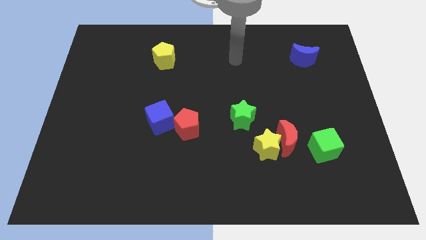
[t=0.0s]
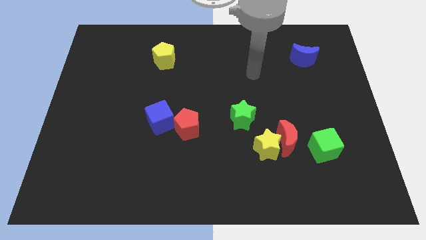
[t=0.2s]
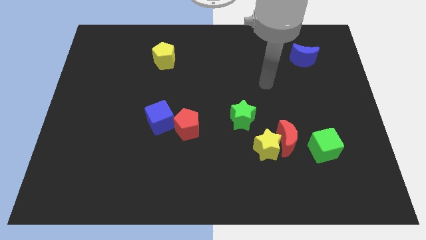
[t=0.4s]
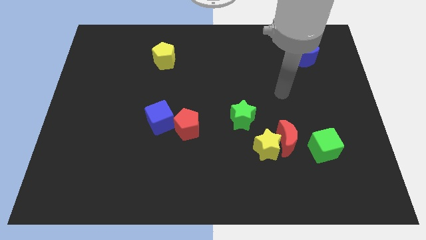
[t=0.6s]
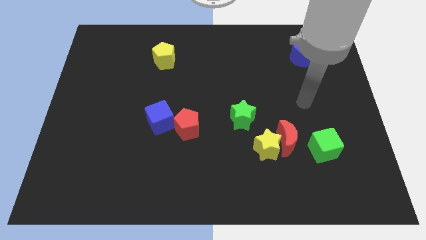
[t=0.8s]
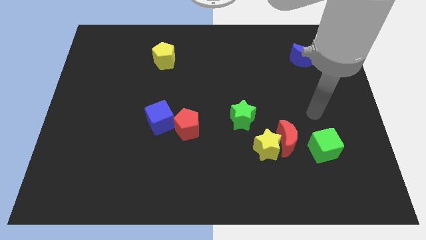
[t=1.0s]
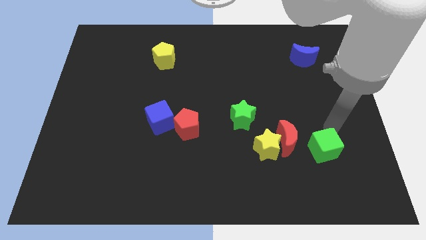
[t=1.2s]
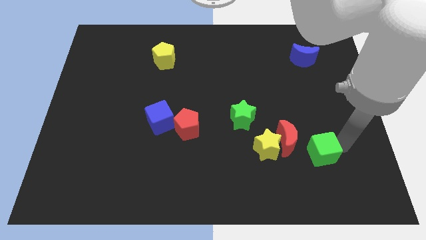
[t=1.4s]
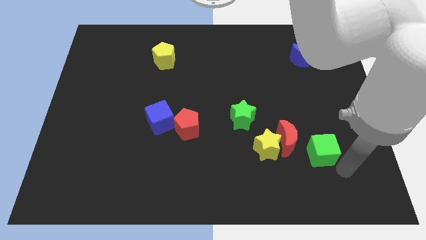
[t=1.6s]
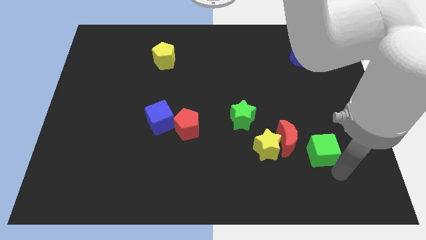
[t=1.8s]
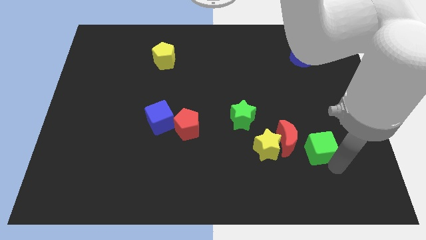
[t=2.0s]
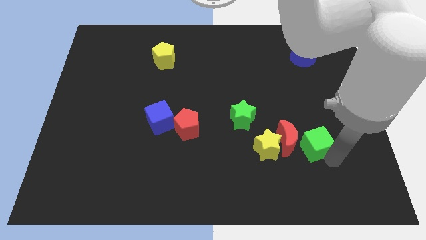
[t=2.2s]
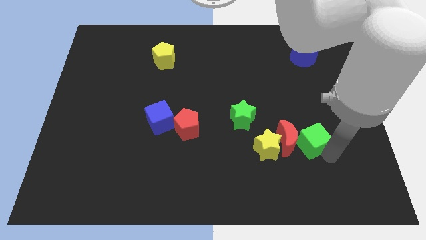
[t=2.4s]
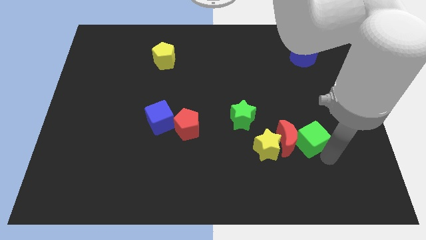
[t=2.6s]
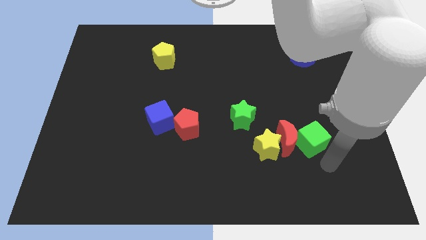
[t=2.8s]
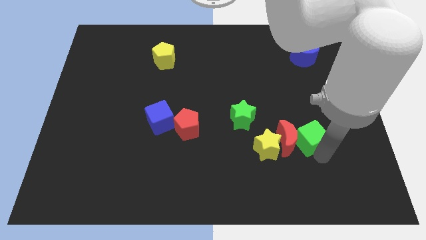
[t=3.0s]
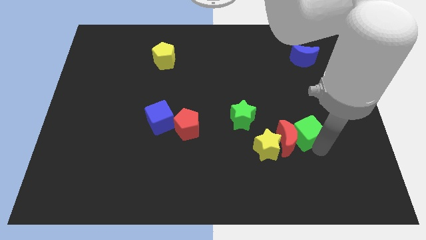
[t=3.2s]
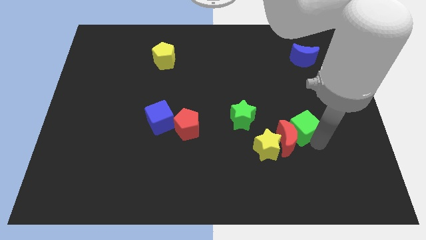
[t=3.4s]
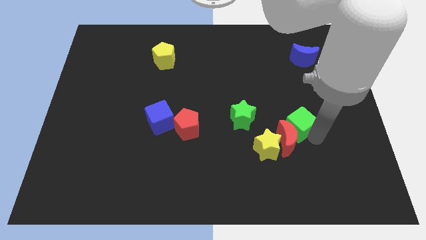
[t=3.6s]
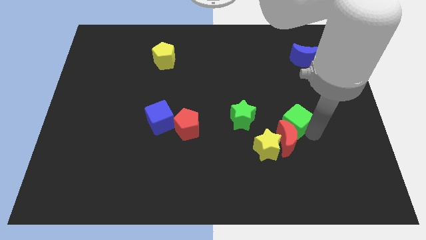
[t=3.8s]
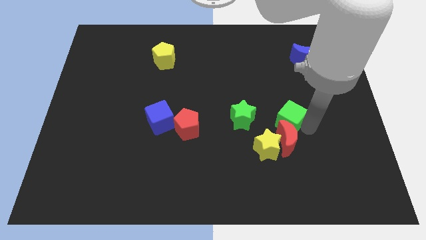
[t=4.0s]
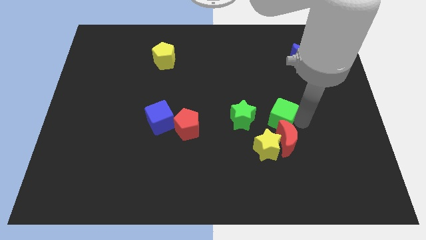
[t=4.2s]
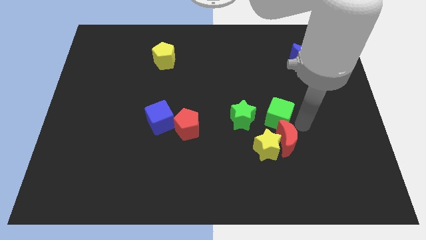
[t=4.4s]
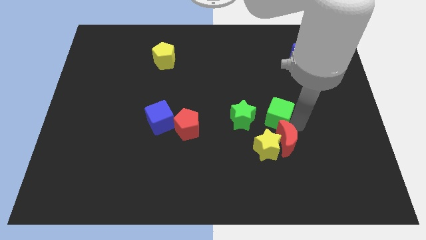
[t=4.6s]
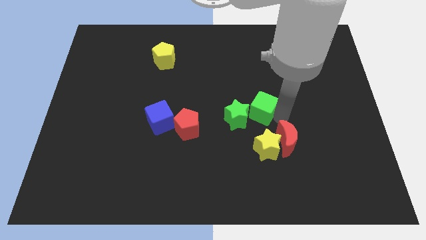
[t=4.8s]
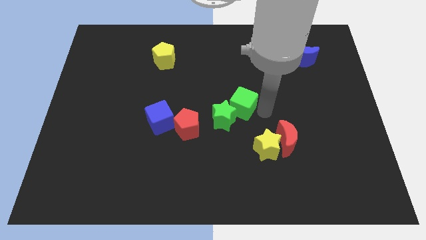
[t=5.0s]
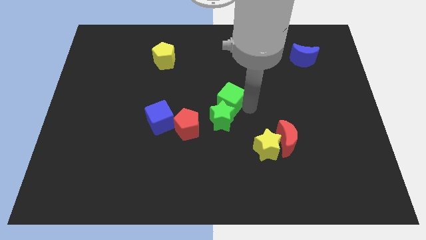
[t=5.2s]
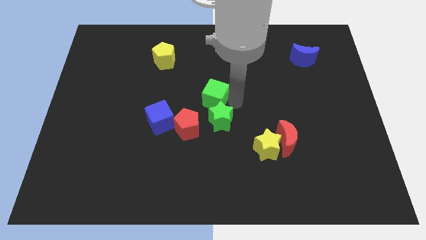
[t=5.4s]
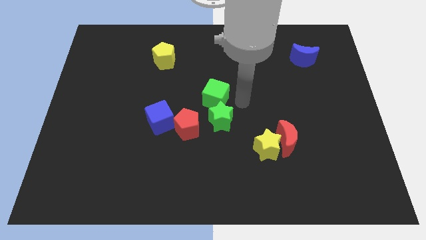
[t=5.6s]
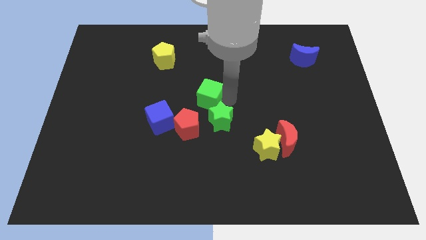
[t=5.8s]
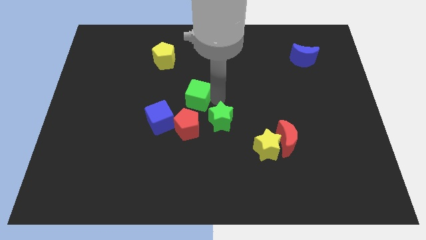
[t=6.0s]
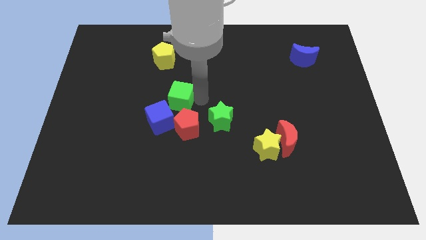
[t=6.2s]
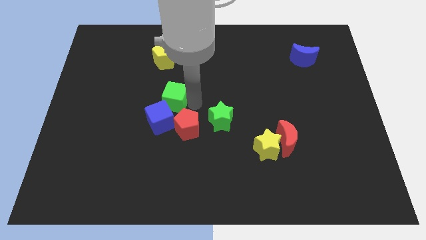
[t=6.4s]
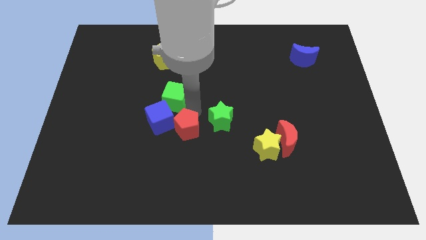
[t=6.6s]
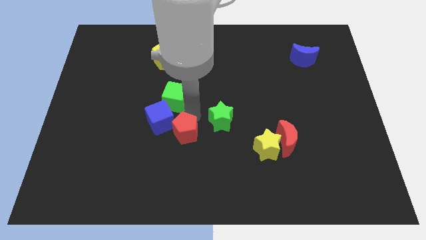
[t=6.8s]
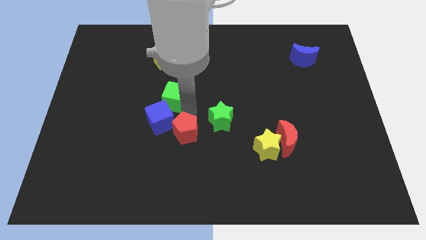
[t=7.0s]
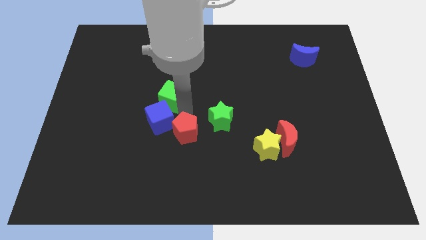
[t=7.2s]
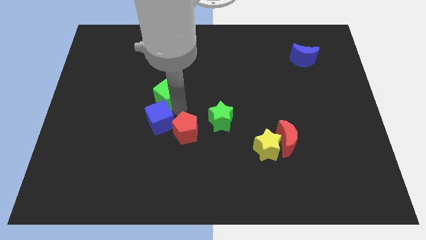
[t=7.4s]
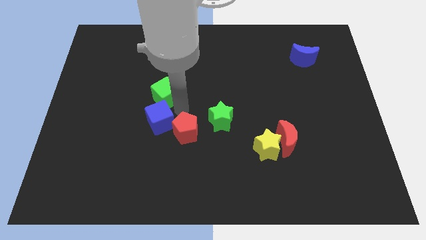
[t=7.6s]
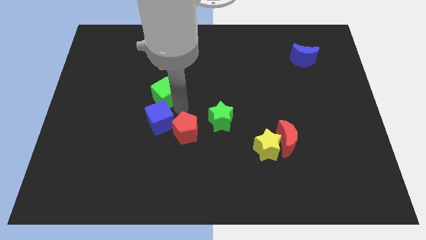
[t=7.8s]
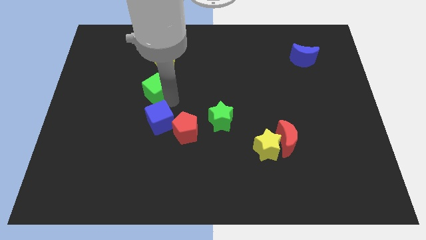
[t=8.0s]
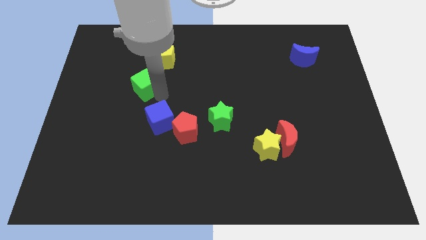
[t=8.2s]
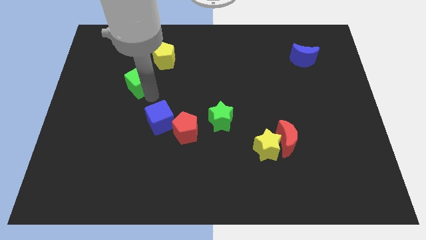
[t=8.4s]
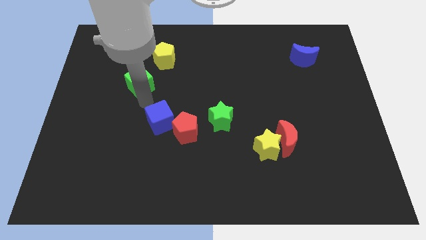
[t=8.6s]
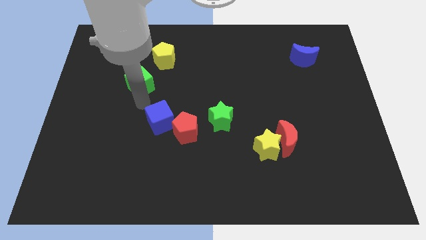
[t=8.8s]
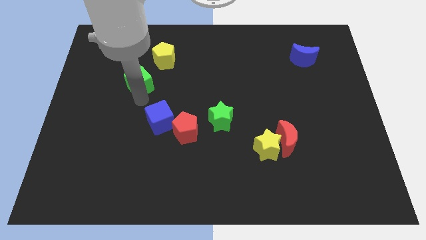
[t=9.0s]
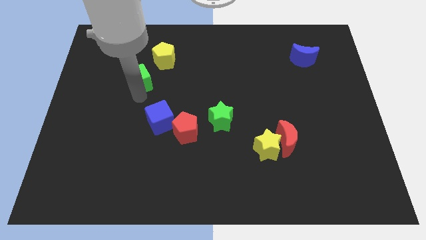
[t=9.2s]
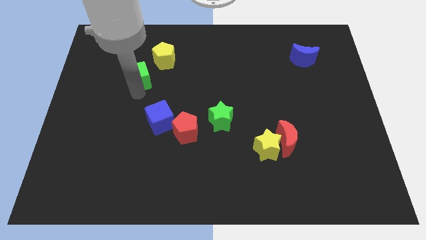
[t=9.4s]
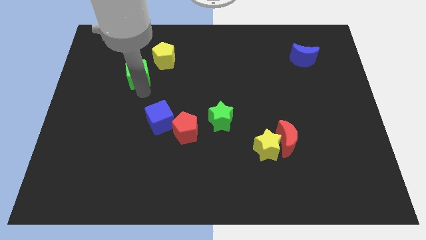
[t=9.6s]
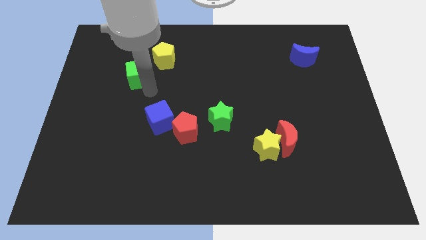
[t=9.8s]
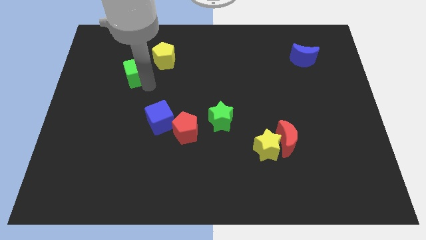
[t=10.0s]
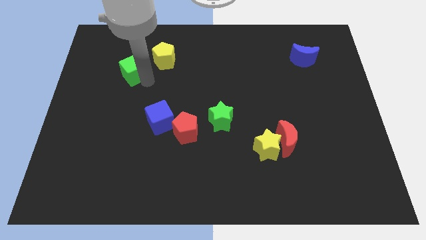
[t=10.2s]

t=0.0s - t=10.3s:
put the green cube just left of the yellow pentagon

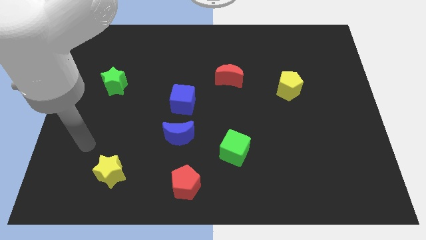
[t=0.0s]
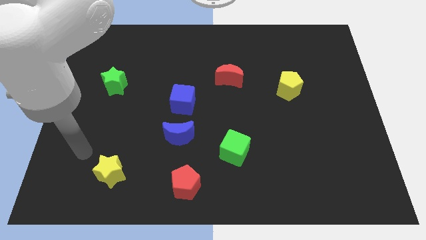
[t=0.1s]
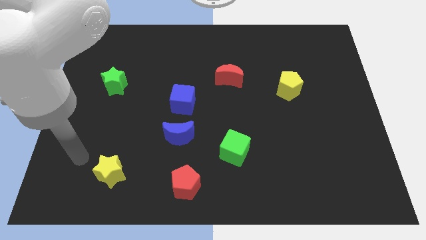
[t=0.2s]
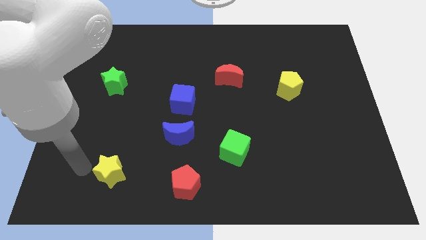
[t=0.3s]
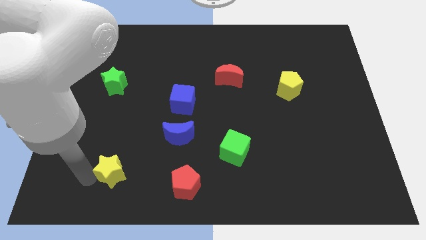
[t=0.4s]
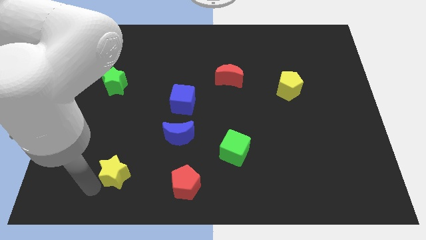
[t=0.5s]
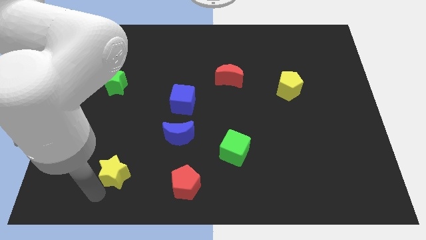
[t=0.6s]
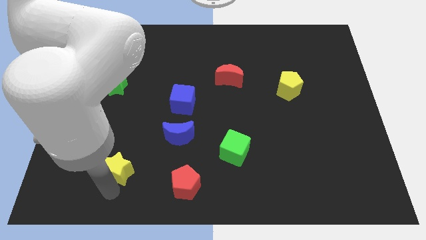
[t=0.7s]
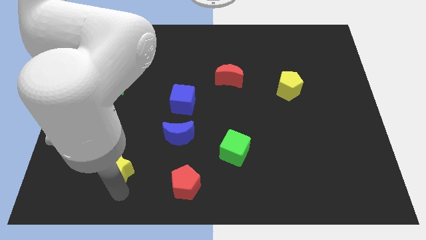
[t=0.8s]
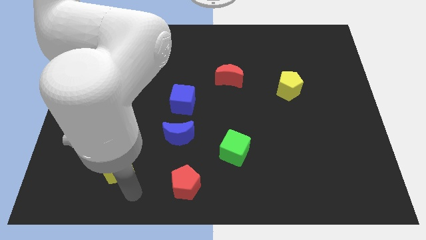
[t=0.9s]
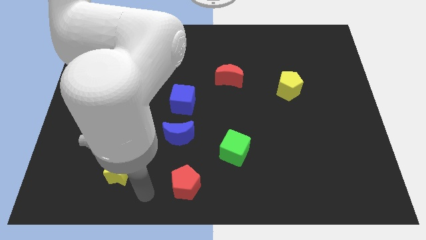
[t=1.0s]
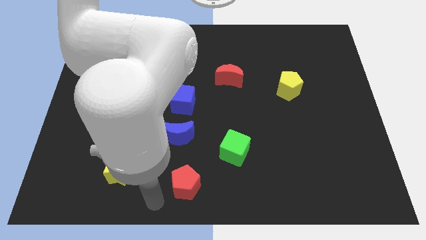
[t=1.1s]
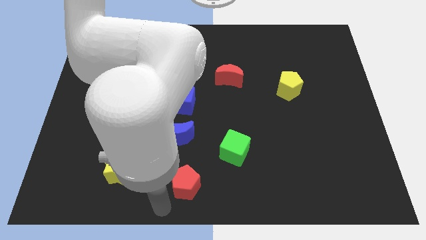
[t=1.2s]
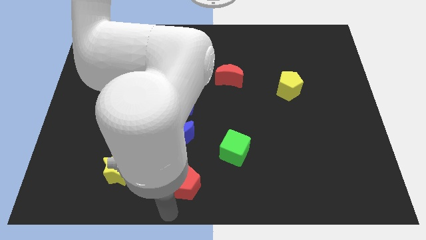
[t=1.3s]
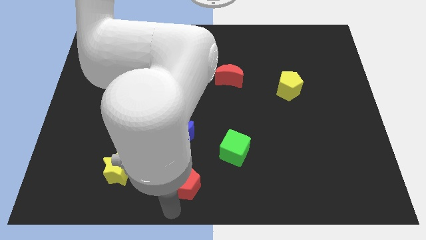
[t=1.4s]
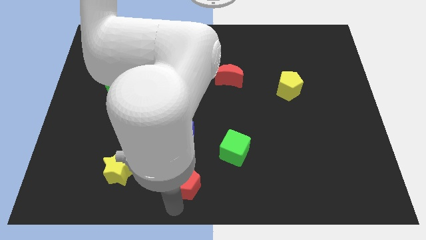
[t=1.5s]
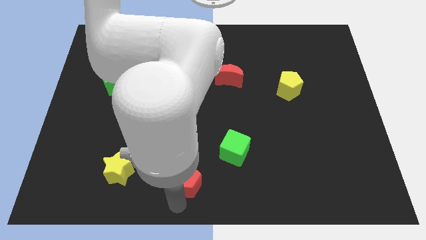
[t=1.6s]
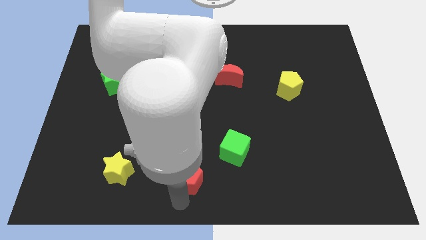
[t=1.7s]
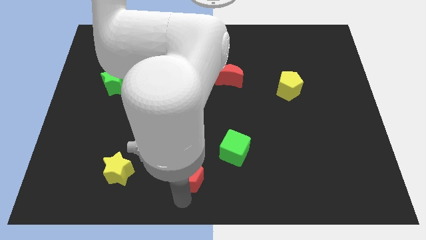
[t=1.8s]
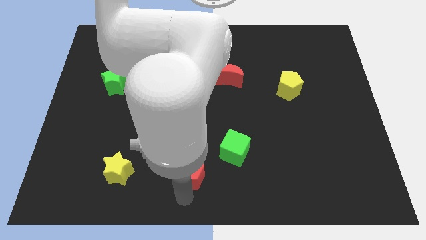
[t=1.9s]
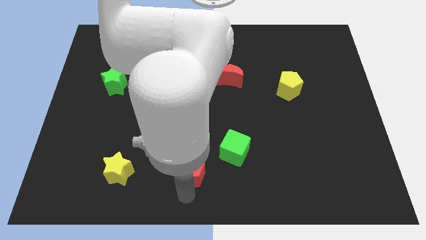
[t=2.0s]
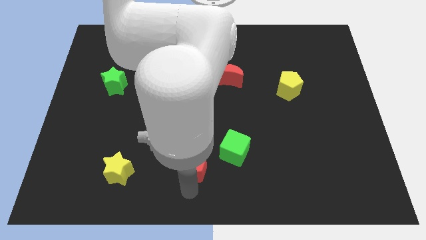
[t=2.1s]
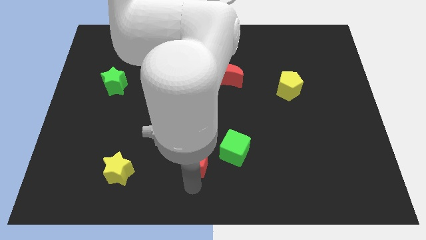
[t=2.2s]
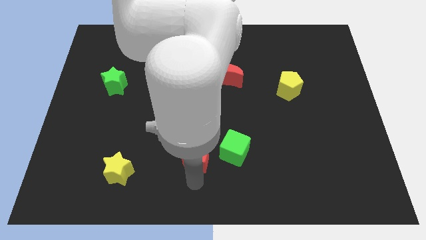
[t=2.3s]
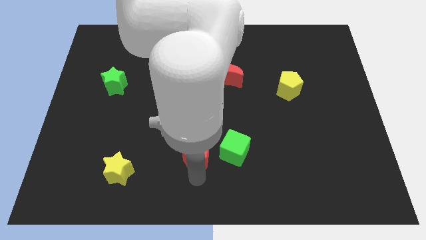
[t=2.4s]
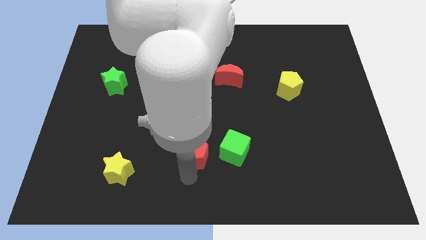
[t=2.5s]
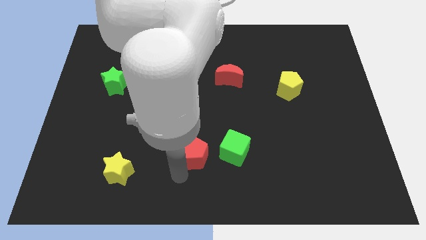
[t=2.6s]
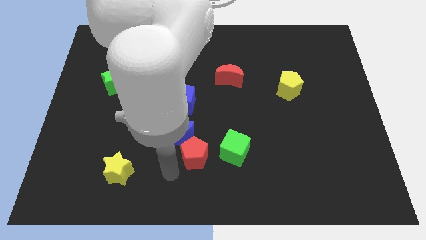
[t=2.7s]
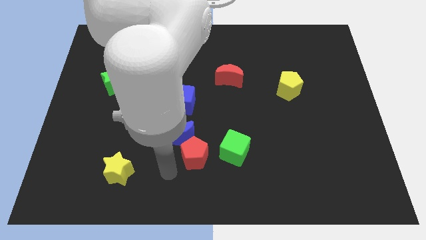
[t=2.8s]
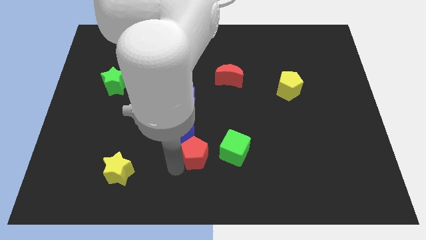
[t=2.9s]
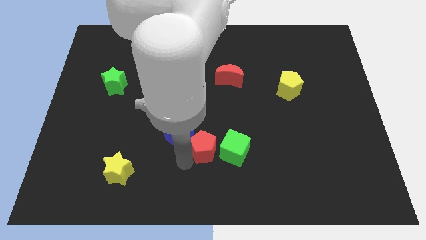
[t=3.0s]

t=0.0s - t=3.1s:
push the red pentagon just right of the blue moon
